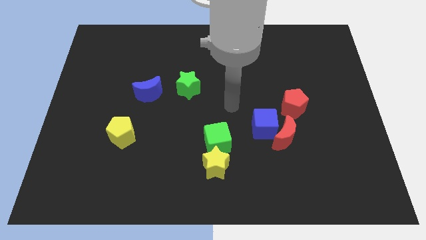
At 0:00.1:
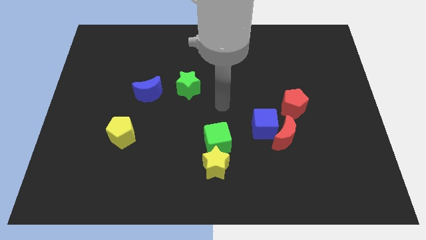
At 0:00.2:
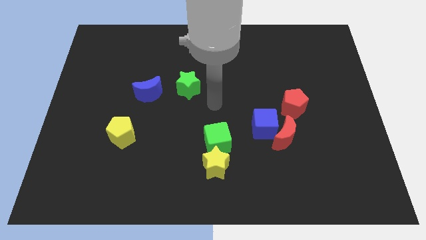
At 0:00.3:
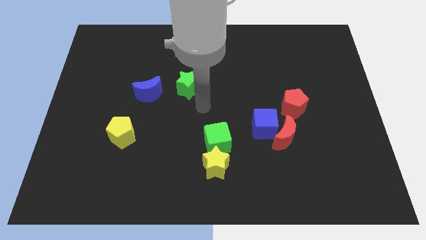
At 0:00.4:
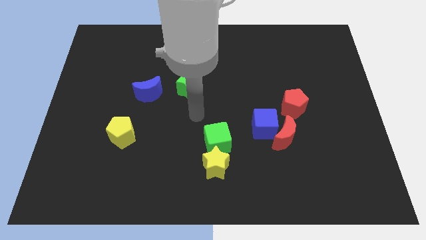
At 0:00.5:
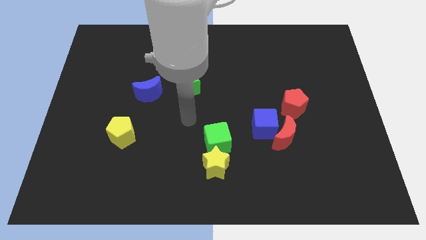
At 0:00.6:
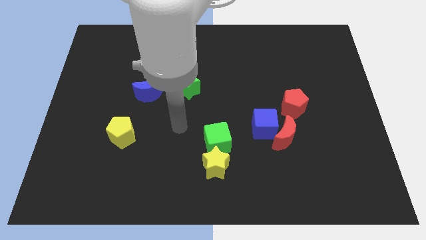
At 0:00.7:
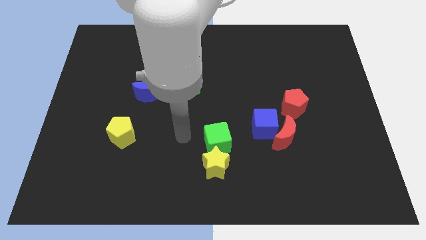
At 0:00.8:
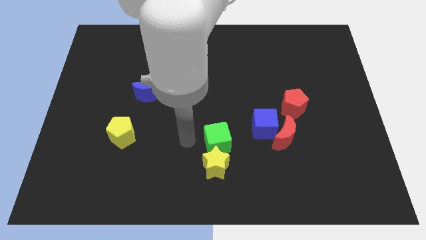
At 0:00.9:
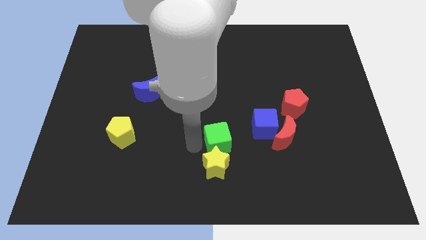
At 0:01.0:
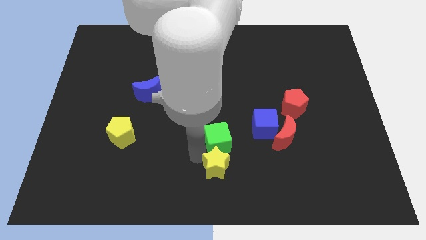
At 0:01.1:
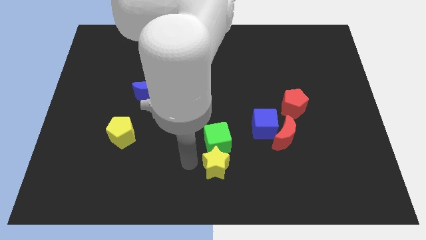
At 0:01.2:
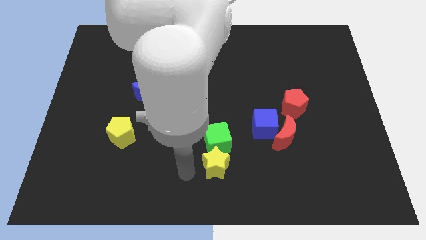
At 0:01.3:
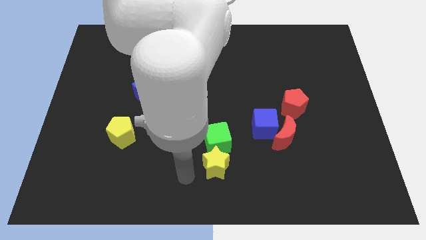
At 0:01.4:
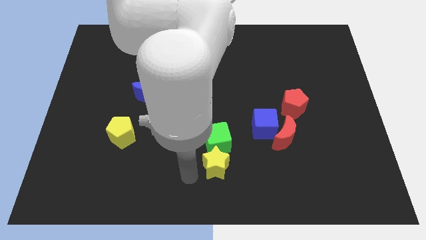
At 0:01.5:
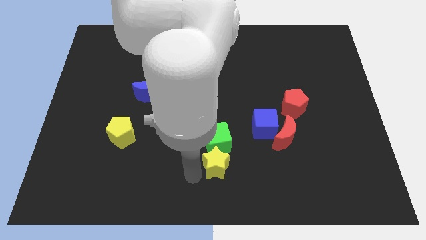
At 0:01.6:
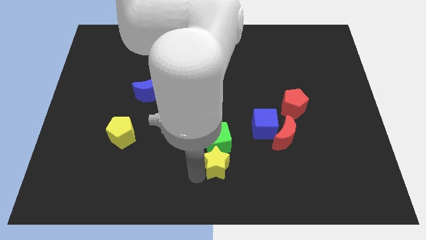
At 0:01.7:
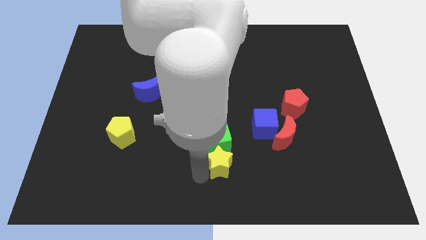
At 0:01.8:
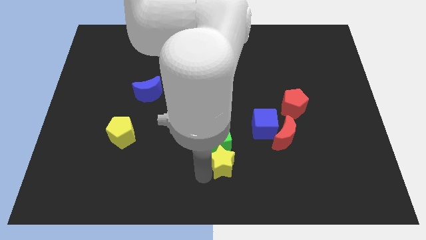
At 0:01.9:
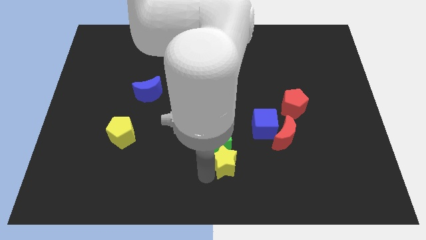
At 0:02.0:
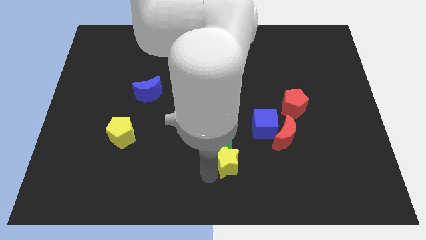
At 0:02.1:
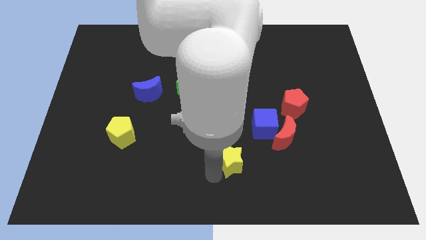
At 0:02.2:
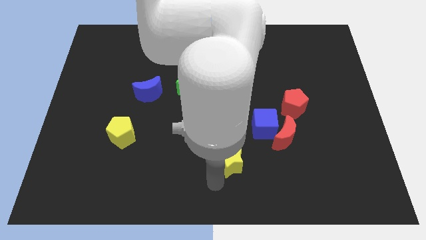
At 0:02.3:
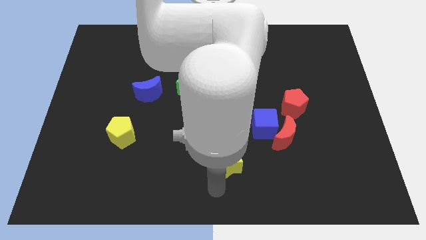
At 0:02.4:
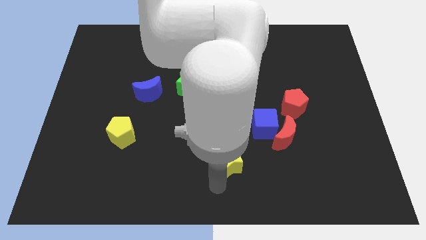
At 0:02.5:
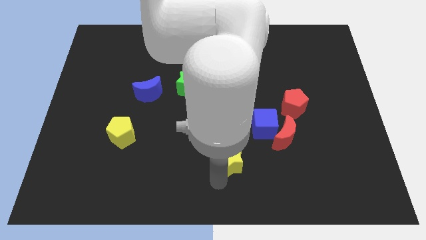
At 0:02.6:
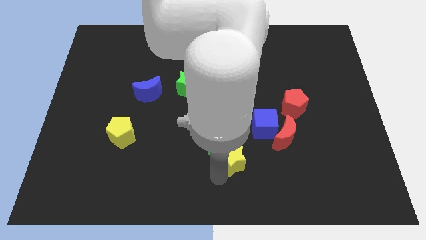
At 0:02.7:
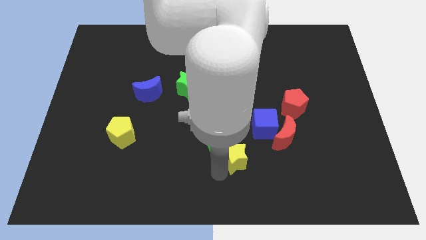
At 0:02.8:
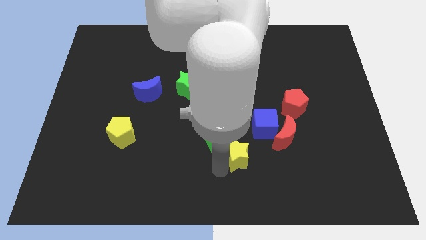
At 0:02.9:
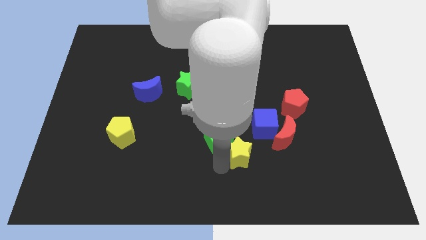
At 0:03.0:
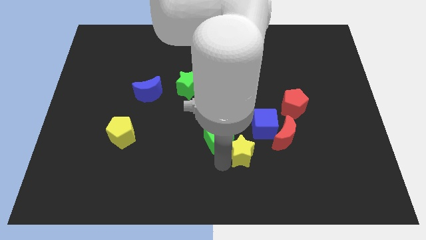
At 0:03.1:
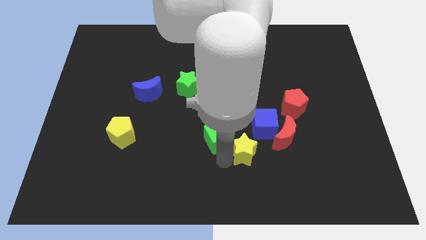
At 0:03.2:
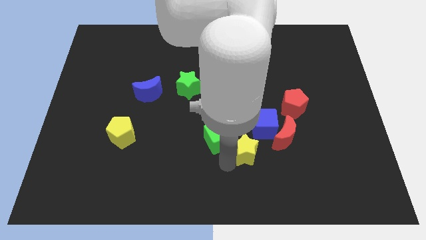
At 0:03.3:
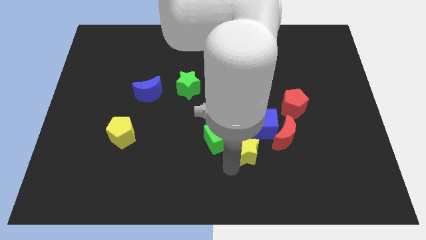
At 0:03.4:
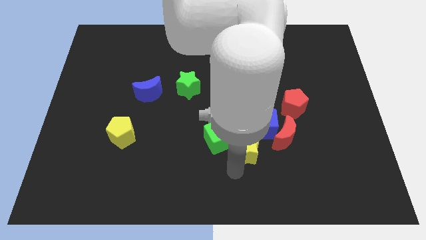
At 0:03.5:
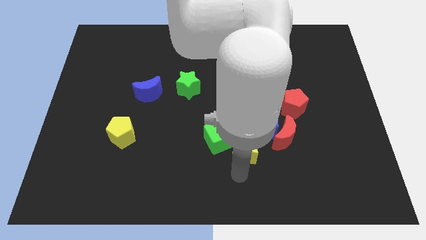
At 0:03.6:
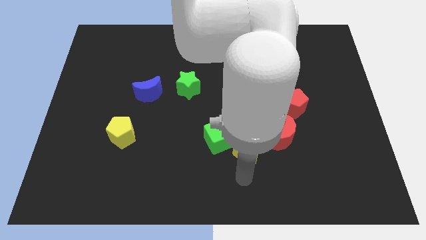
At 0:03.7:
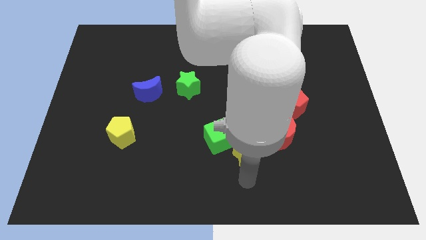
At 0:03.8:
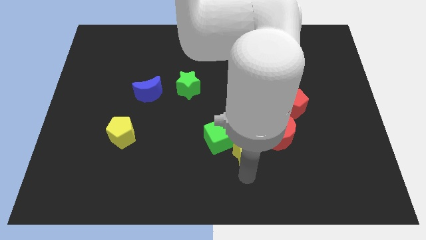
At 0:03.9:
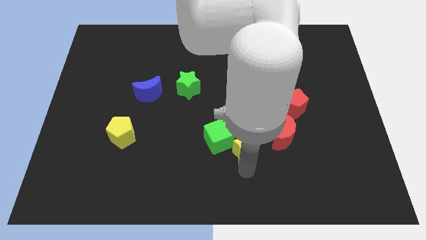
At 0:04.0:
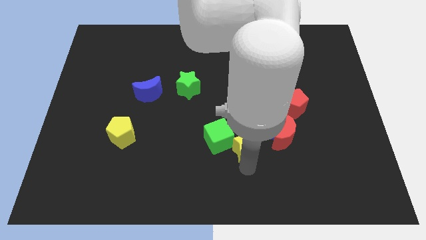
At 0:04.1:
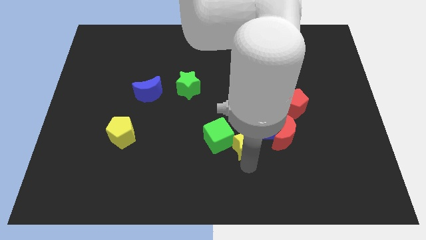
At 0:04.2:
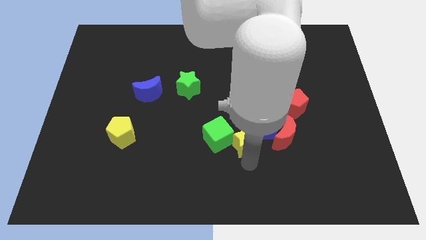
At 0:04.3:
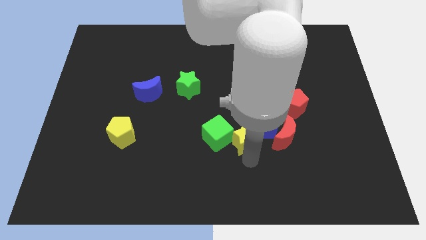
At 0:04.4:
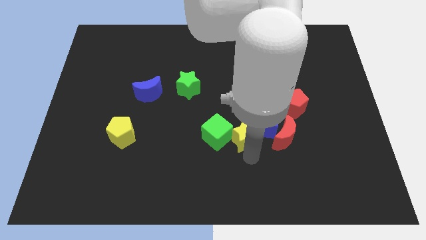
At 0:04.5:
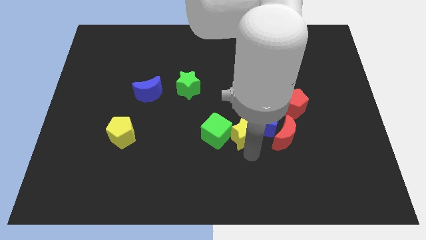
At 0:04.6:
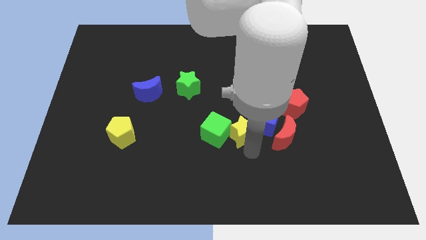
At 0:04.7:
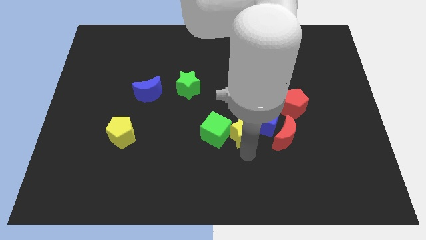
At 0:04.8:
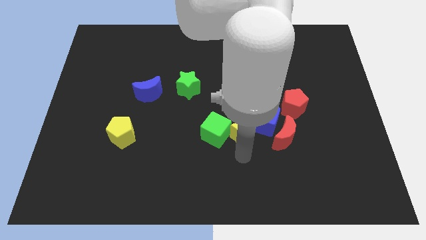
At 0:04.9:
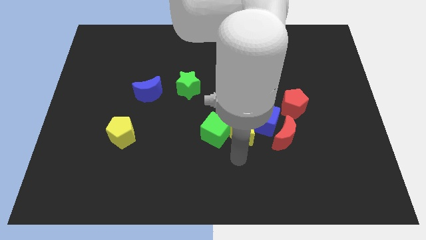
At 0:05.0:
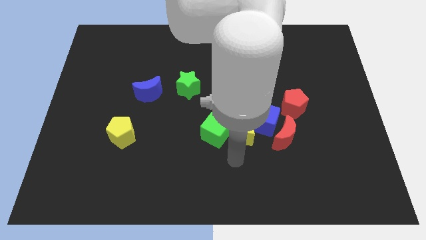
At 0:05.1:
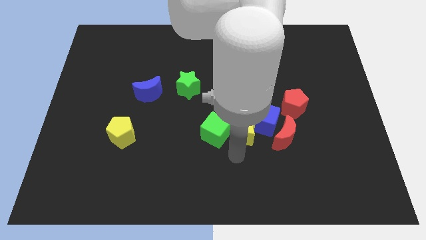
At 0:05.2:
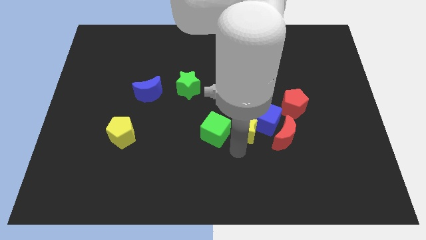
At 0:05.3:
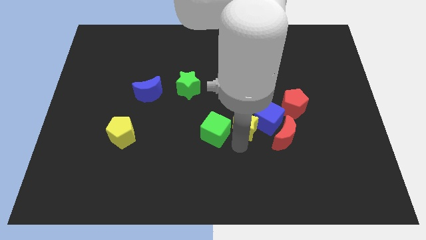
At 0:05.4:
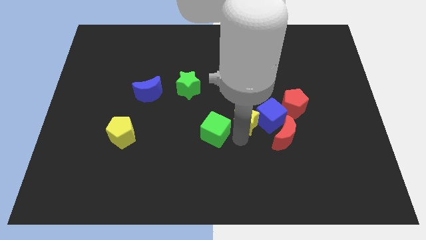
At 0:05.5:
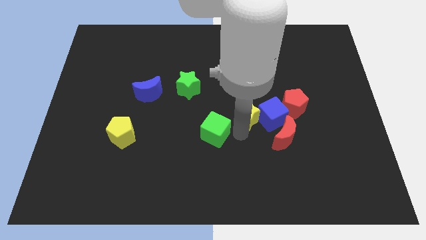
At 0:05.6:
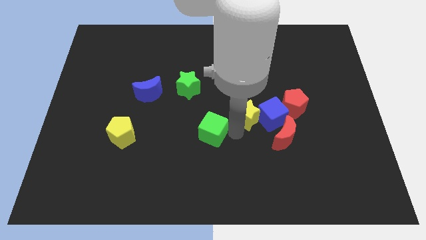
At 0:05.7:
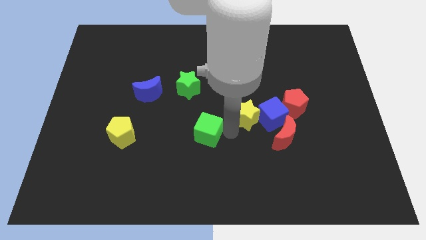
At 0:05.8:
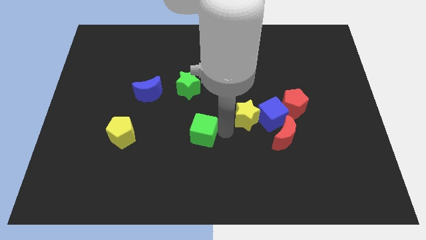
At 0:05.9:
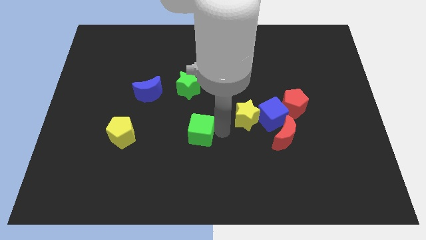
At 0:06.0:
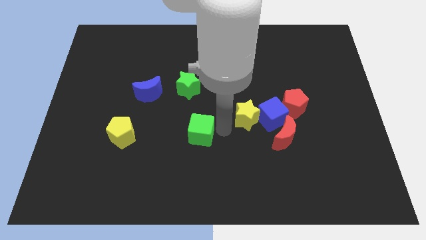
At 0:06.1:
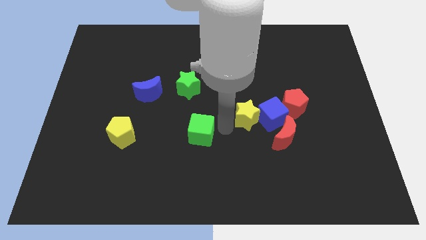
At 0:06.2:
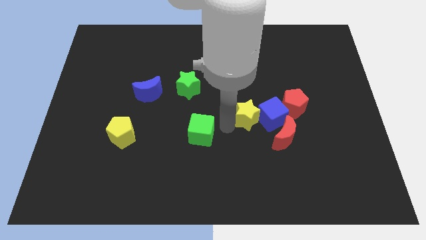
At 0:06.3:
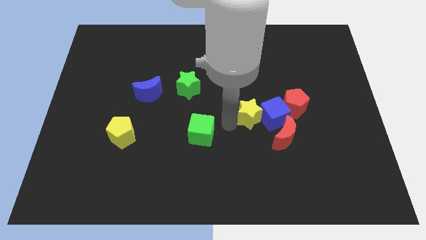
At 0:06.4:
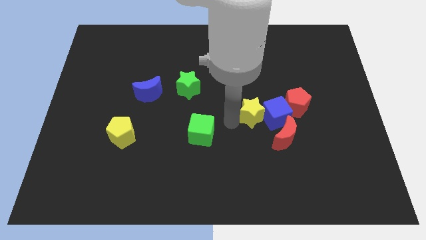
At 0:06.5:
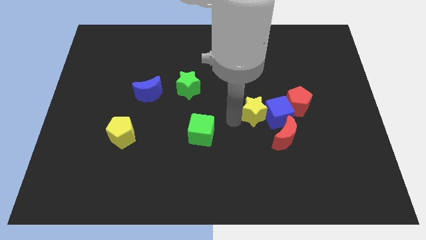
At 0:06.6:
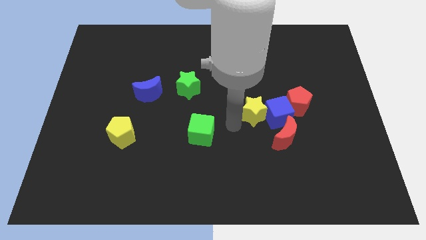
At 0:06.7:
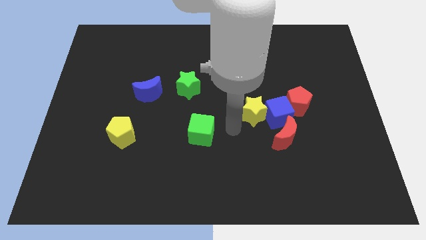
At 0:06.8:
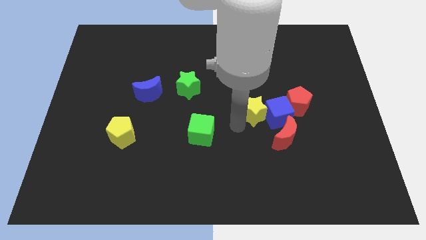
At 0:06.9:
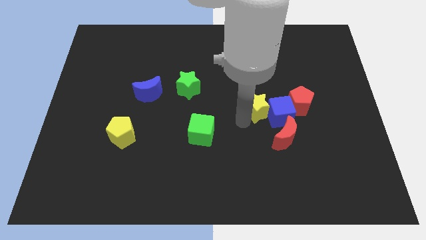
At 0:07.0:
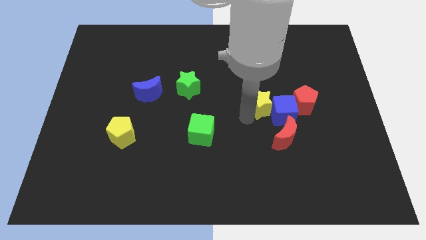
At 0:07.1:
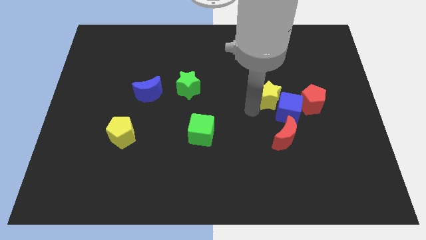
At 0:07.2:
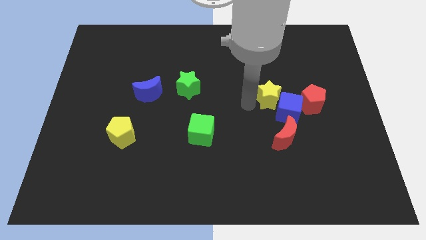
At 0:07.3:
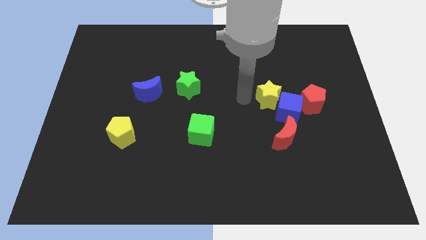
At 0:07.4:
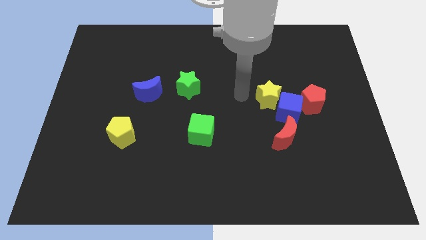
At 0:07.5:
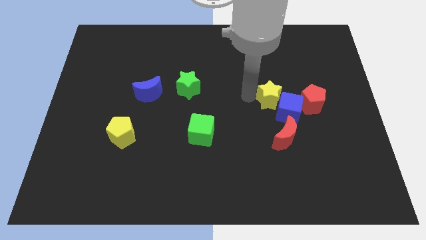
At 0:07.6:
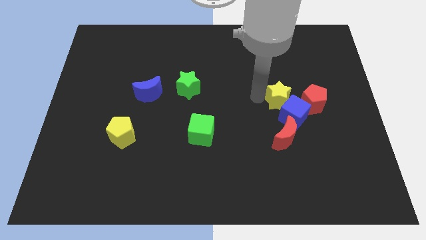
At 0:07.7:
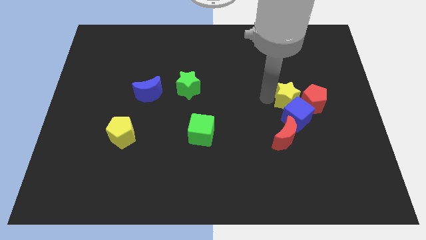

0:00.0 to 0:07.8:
slide the yellow star next to the red pentagon

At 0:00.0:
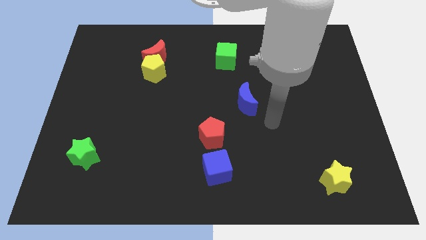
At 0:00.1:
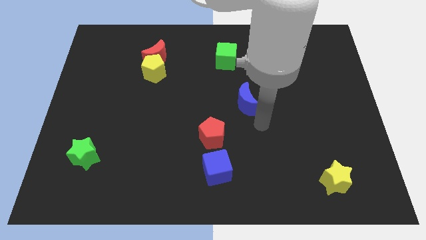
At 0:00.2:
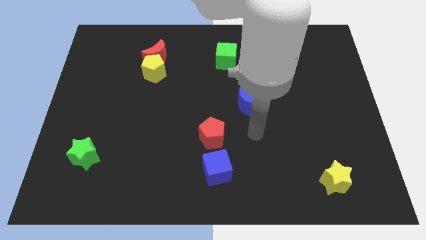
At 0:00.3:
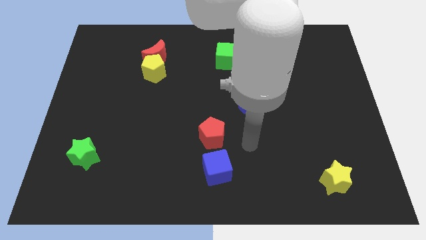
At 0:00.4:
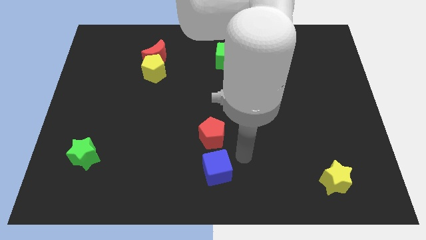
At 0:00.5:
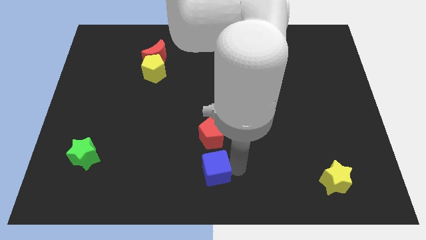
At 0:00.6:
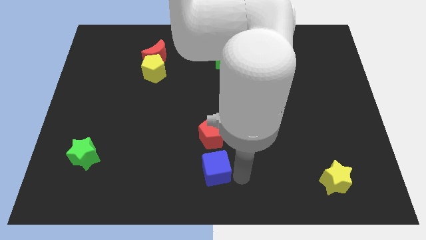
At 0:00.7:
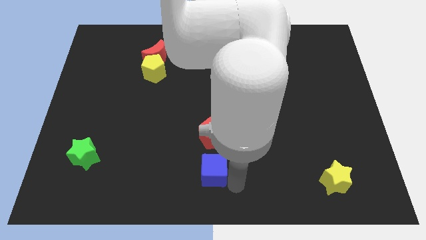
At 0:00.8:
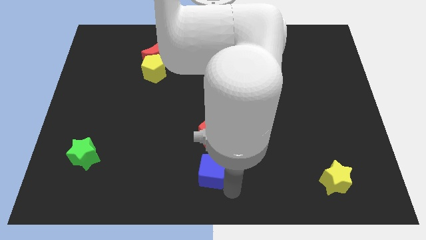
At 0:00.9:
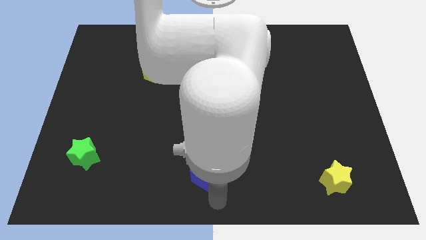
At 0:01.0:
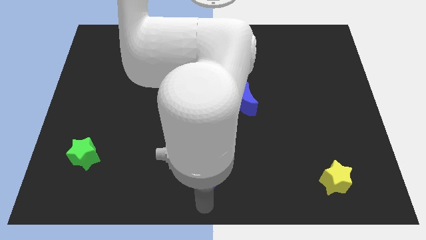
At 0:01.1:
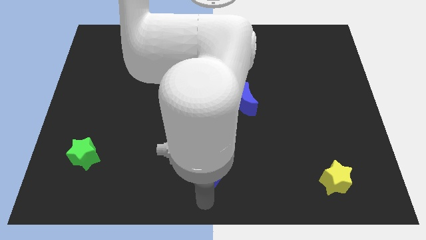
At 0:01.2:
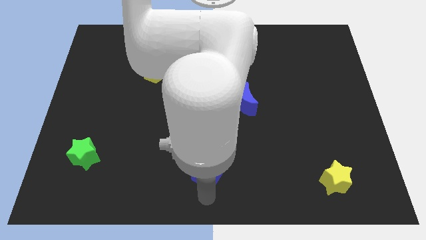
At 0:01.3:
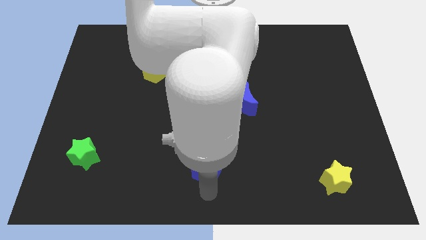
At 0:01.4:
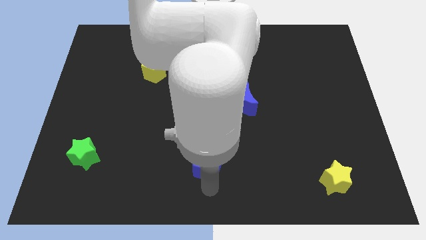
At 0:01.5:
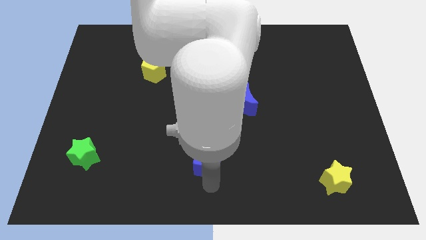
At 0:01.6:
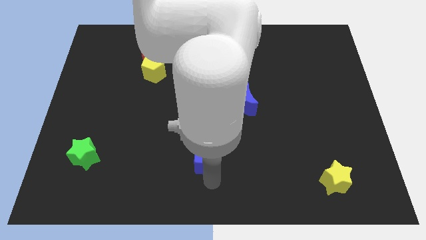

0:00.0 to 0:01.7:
slide the blue cube to the red pentagon
